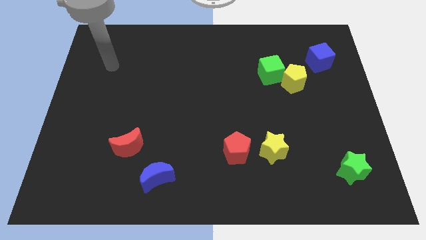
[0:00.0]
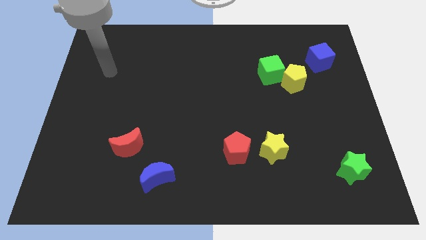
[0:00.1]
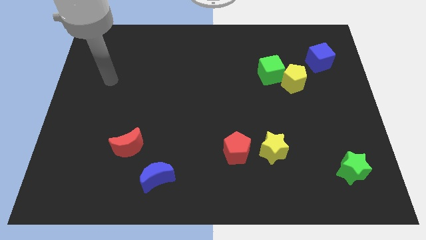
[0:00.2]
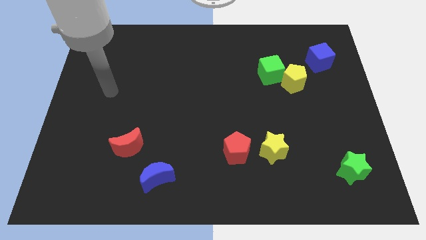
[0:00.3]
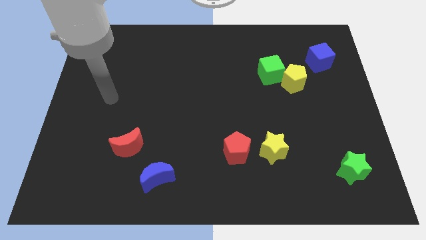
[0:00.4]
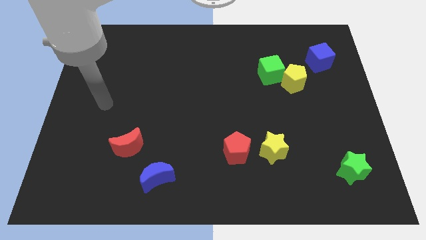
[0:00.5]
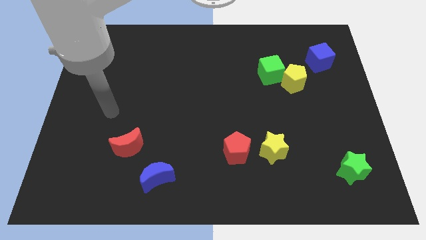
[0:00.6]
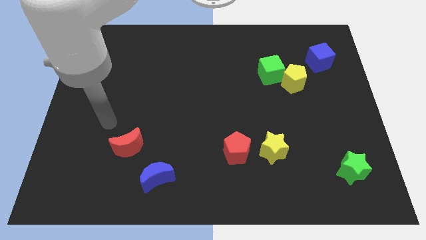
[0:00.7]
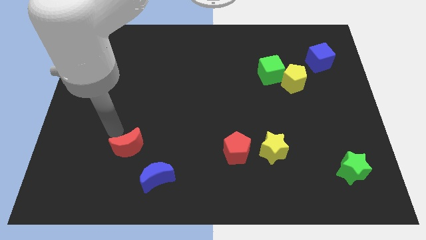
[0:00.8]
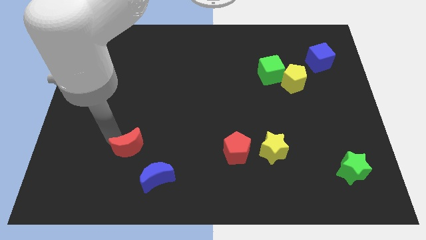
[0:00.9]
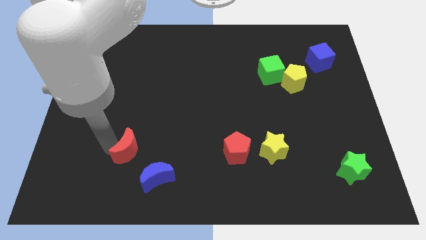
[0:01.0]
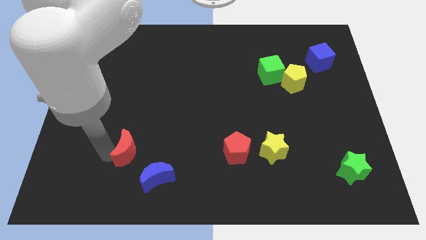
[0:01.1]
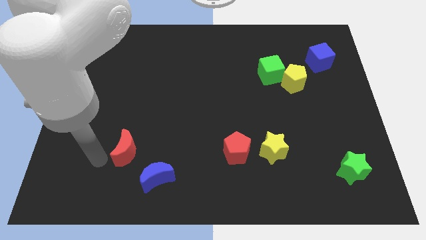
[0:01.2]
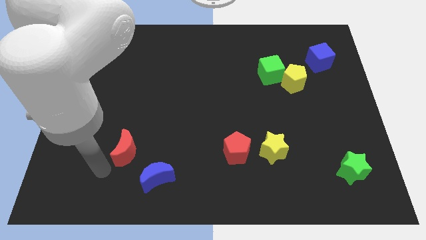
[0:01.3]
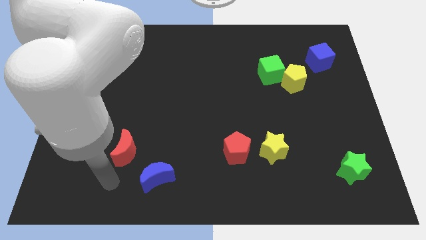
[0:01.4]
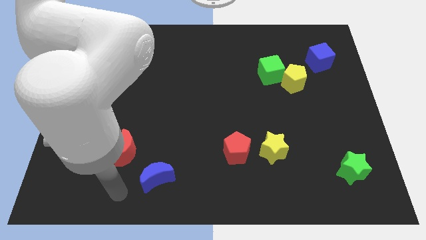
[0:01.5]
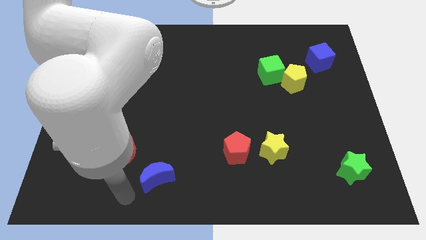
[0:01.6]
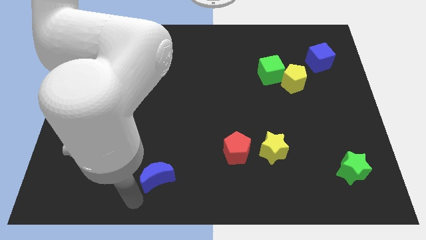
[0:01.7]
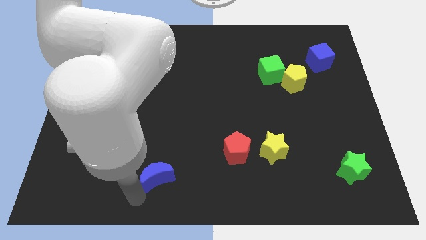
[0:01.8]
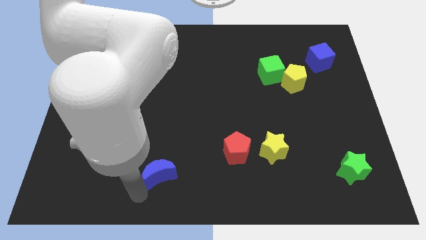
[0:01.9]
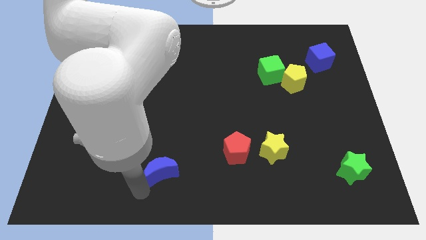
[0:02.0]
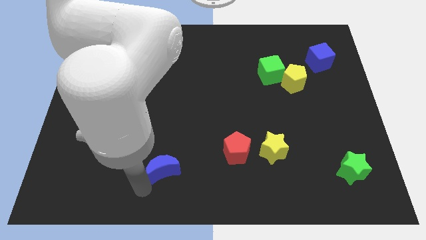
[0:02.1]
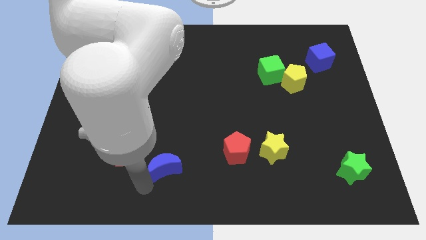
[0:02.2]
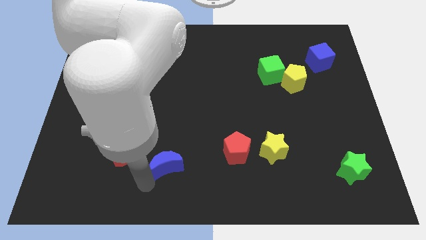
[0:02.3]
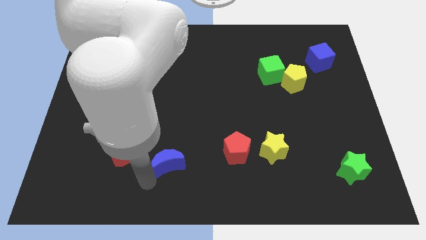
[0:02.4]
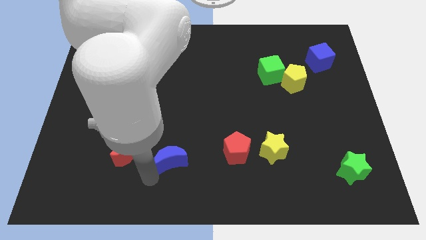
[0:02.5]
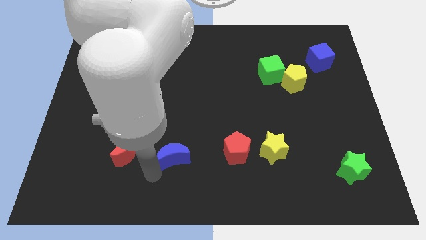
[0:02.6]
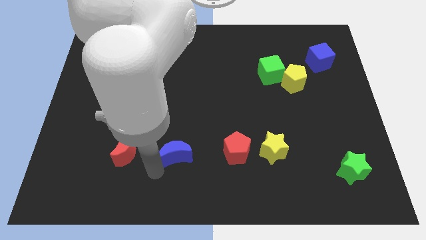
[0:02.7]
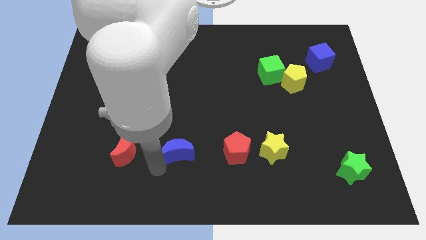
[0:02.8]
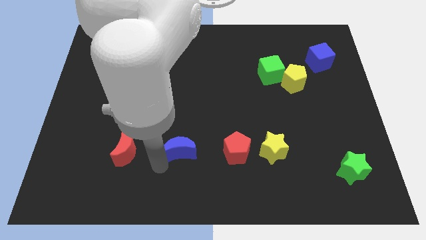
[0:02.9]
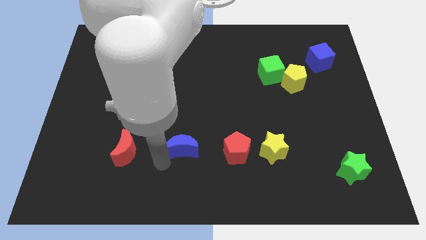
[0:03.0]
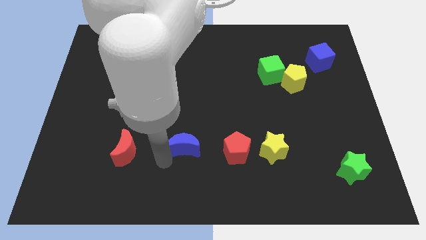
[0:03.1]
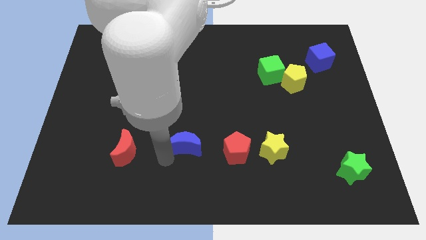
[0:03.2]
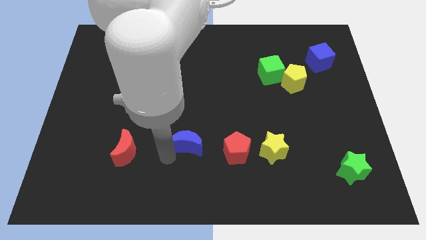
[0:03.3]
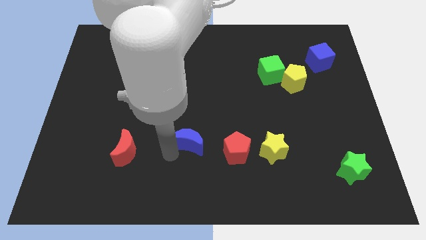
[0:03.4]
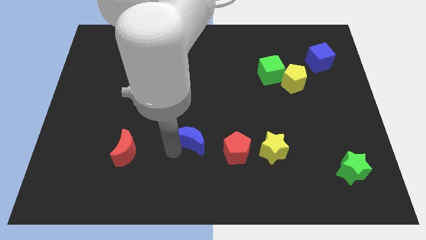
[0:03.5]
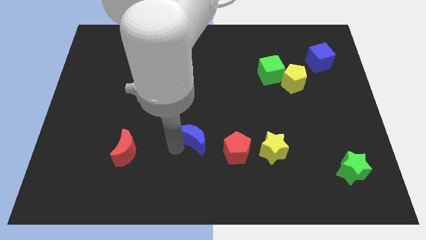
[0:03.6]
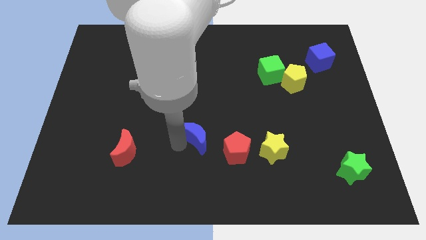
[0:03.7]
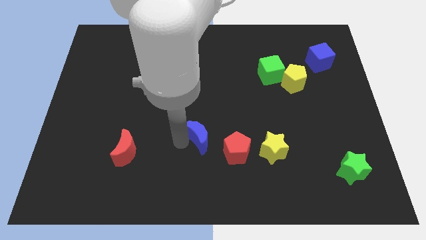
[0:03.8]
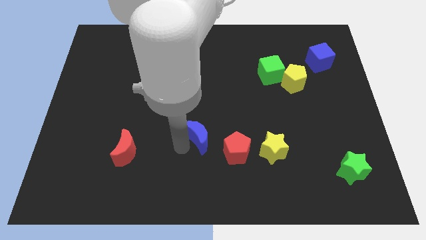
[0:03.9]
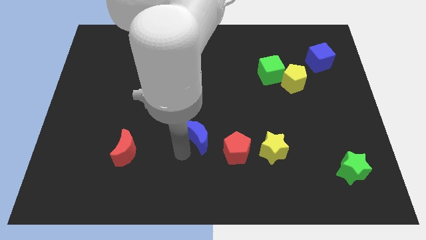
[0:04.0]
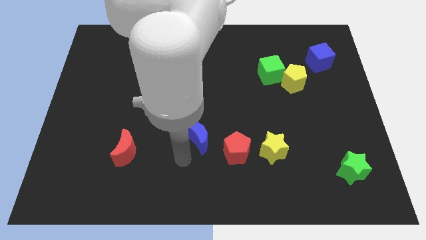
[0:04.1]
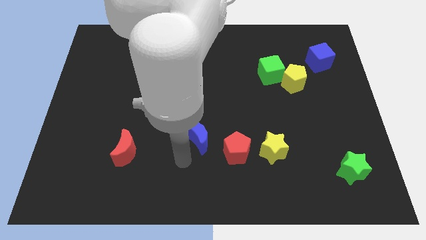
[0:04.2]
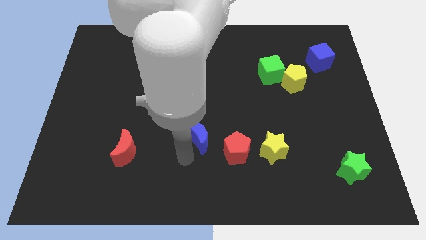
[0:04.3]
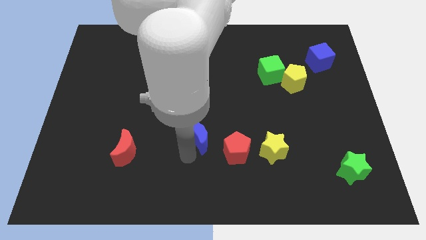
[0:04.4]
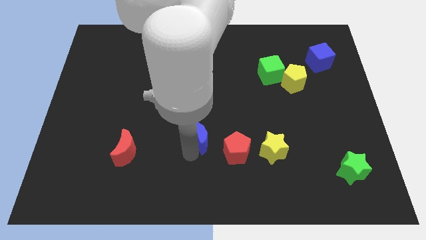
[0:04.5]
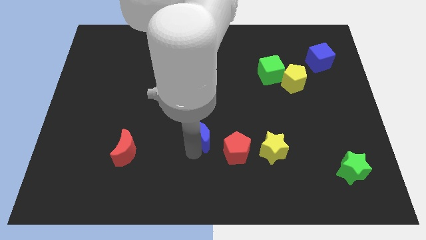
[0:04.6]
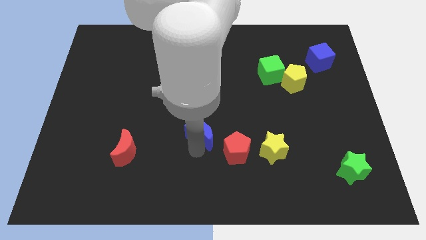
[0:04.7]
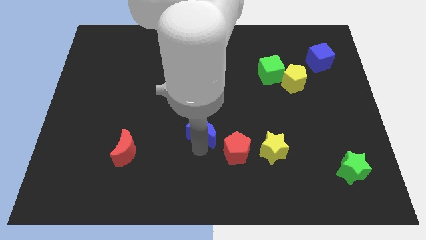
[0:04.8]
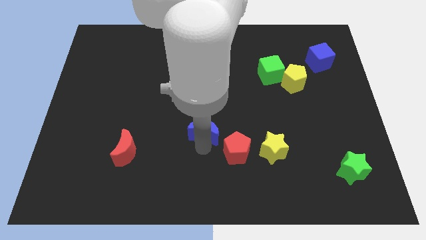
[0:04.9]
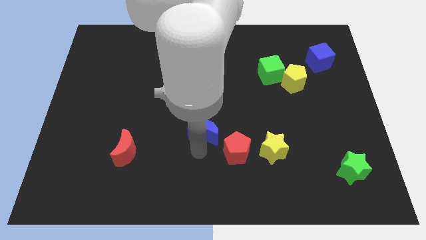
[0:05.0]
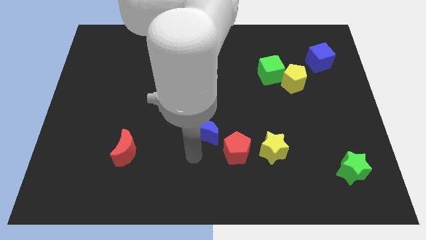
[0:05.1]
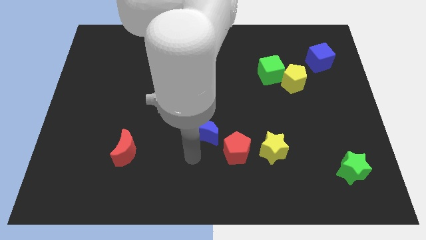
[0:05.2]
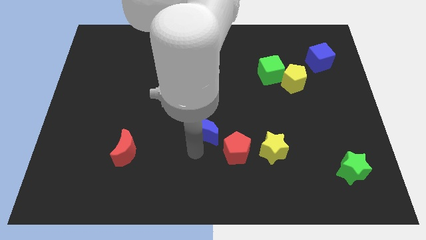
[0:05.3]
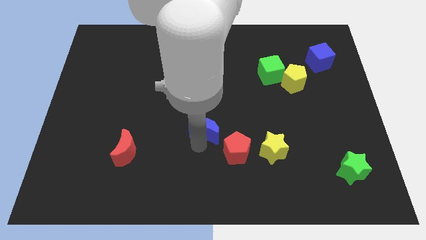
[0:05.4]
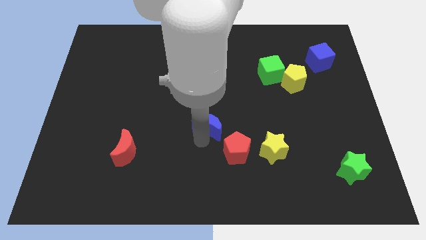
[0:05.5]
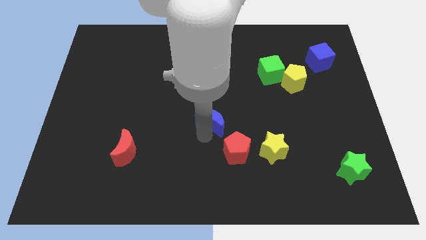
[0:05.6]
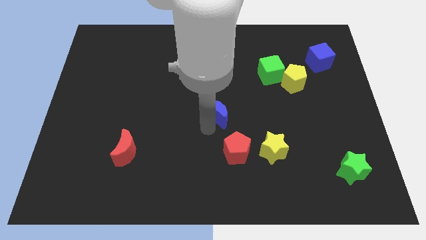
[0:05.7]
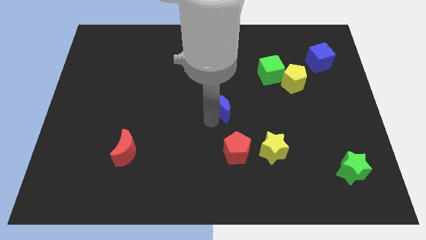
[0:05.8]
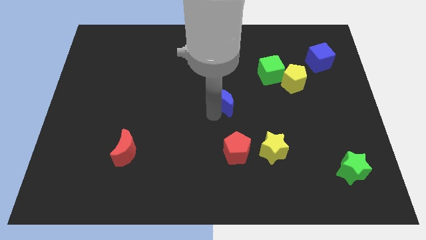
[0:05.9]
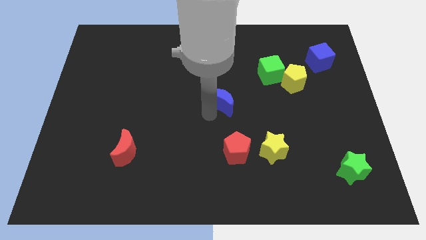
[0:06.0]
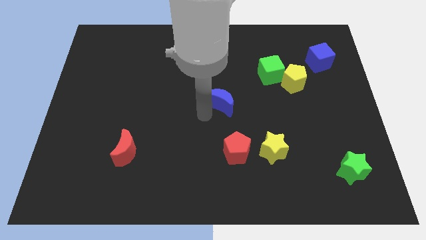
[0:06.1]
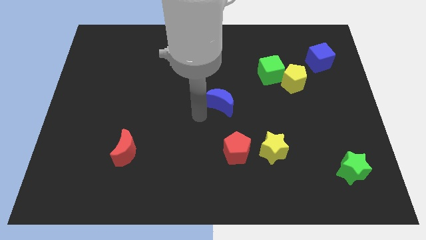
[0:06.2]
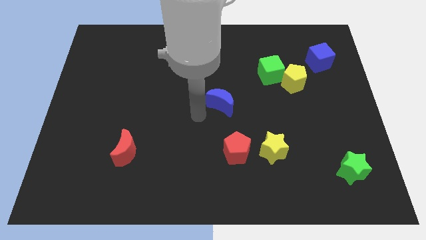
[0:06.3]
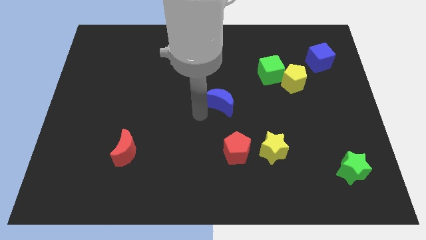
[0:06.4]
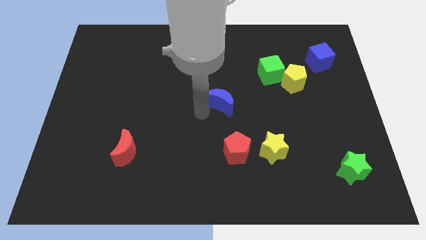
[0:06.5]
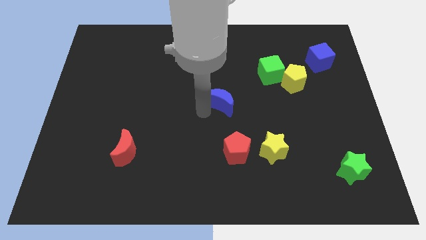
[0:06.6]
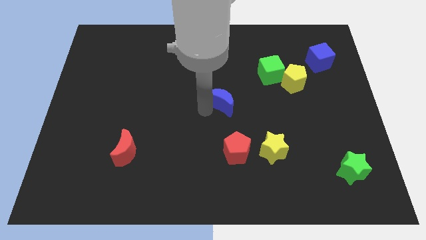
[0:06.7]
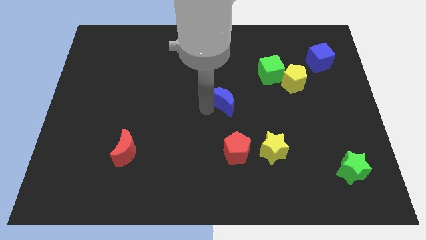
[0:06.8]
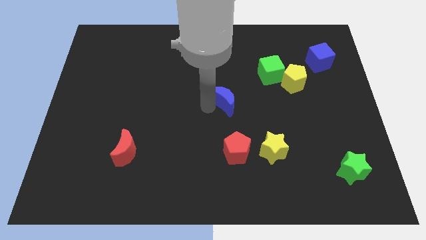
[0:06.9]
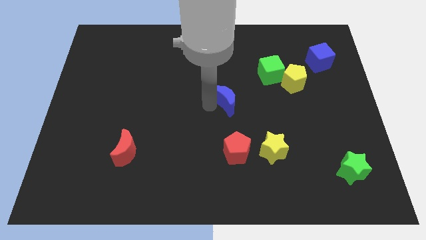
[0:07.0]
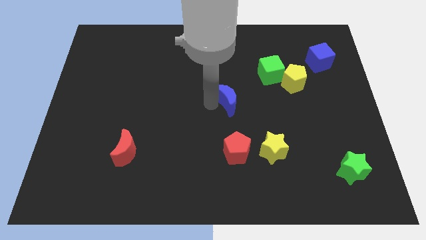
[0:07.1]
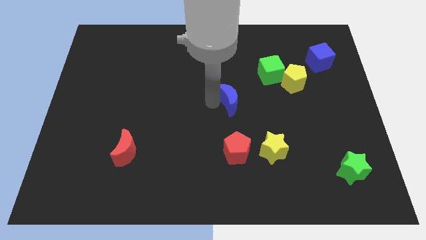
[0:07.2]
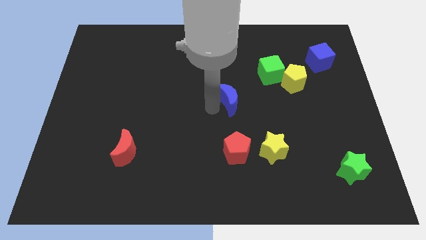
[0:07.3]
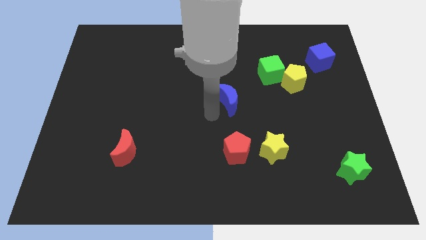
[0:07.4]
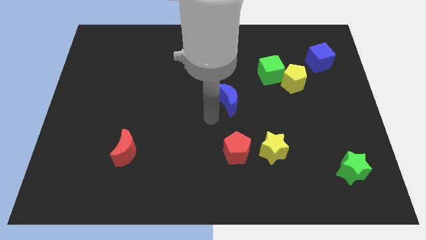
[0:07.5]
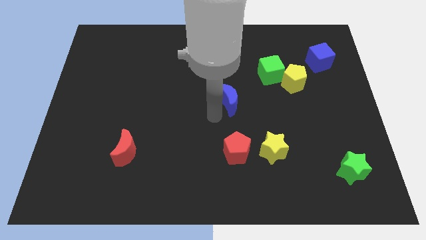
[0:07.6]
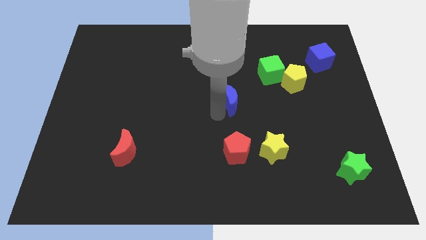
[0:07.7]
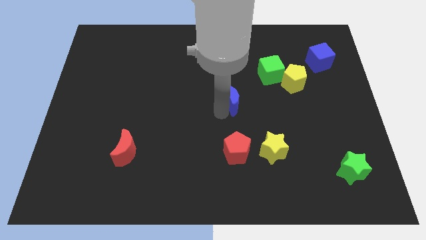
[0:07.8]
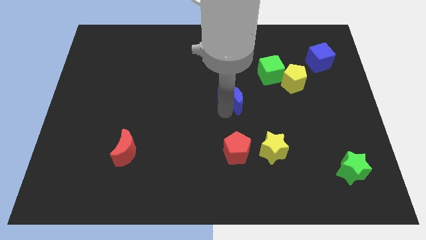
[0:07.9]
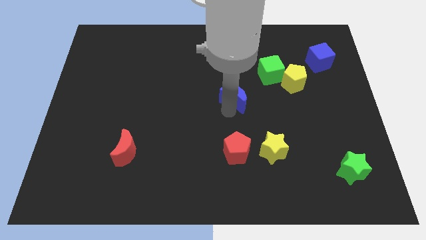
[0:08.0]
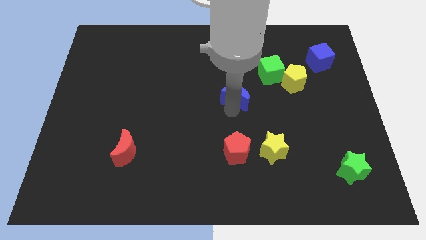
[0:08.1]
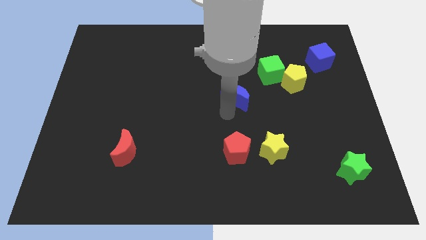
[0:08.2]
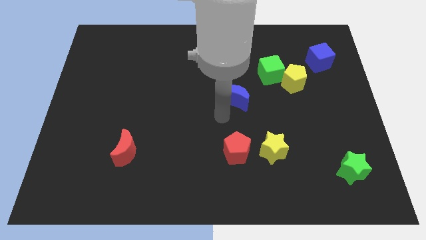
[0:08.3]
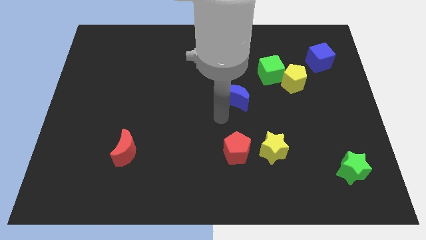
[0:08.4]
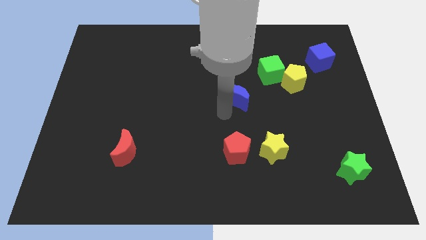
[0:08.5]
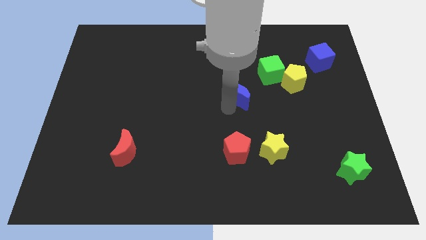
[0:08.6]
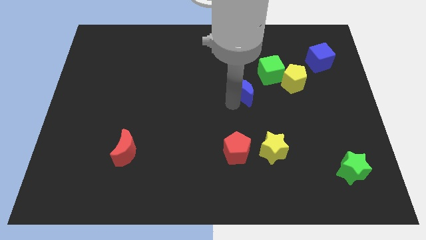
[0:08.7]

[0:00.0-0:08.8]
move the blue moon to the left side of the yellow pentagon
